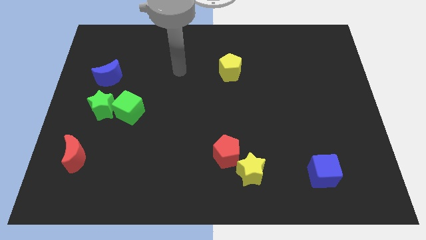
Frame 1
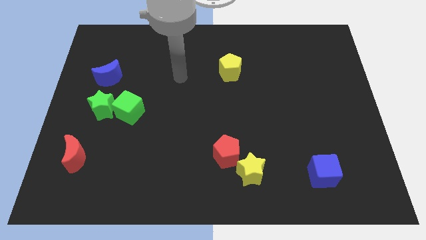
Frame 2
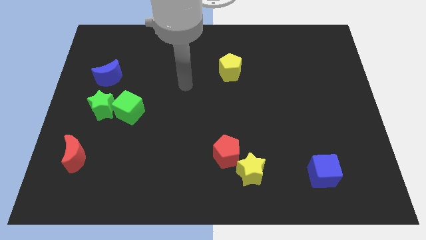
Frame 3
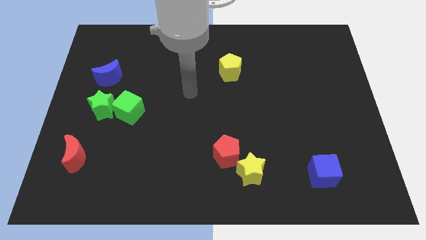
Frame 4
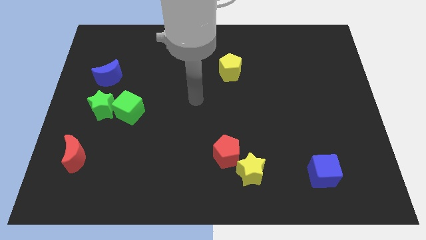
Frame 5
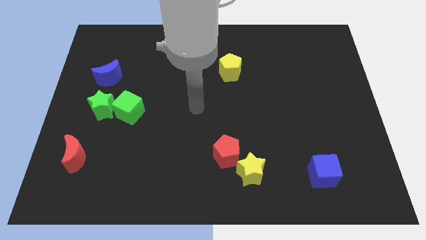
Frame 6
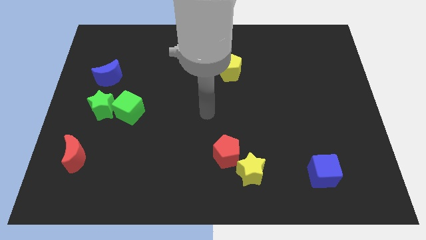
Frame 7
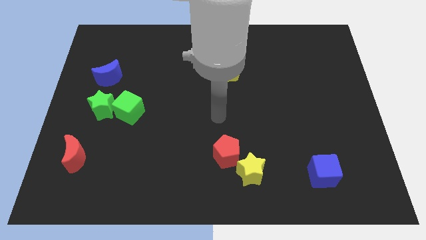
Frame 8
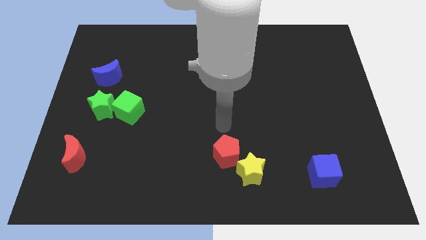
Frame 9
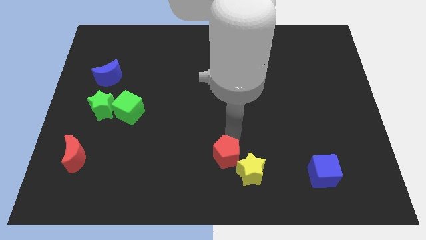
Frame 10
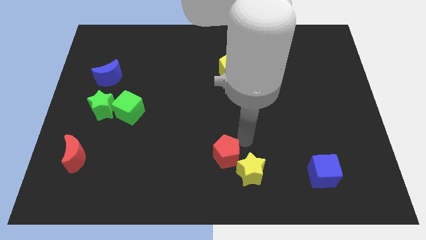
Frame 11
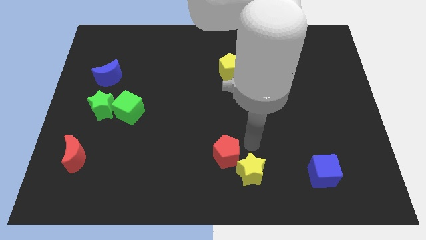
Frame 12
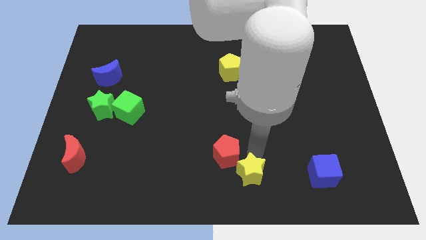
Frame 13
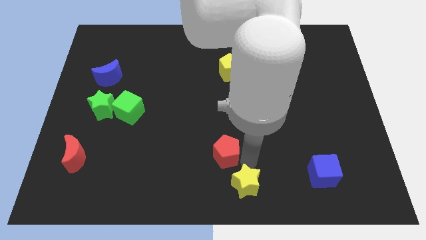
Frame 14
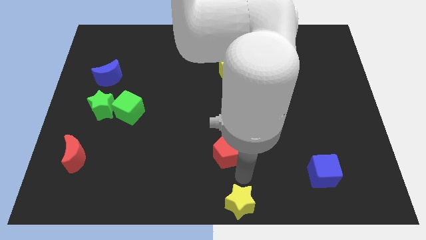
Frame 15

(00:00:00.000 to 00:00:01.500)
pull the red pentagon apart from the yellow star

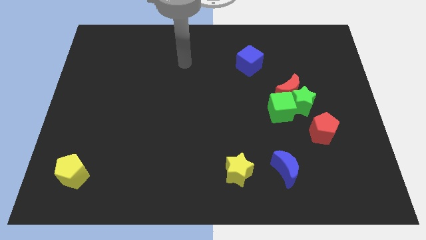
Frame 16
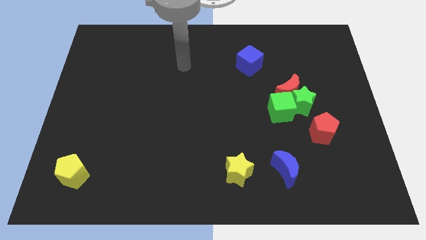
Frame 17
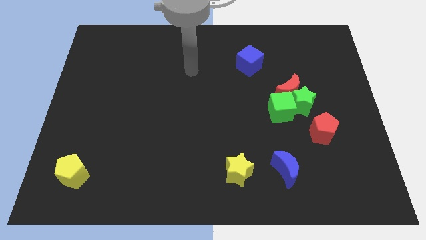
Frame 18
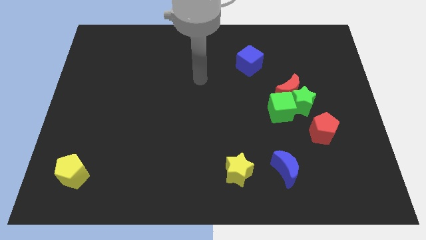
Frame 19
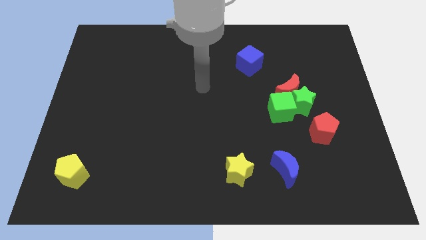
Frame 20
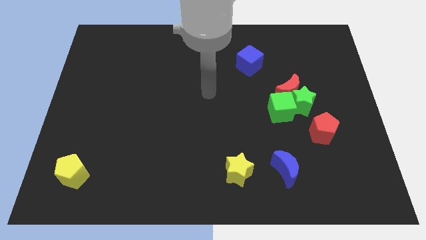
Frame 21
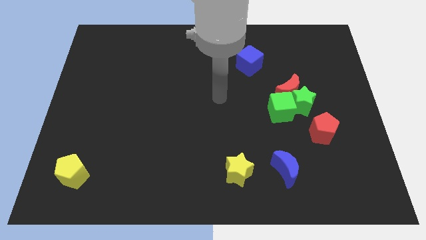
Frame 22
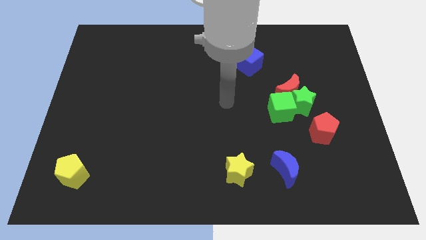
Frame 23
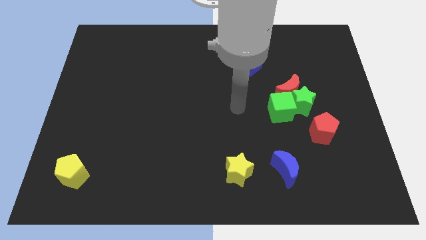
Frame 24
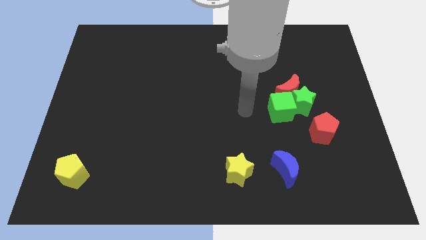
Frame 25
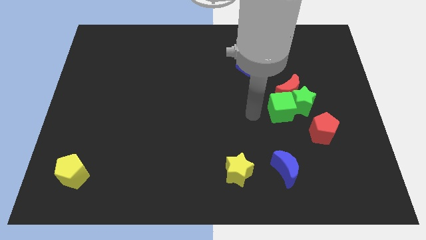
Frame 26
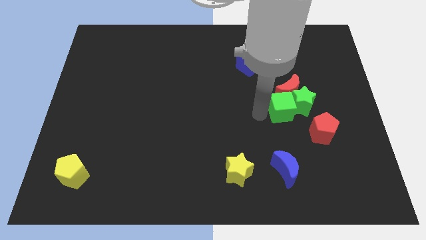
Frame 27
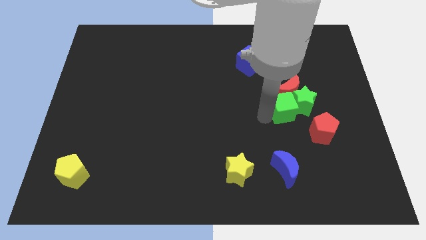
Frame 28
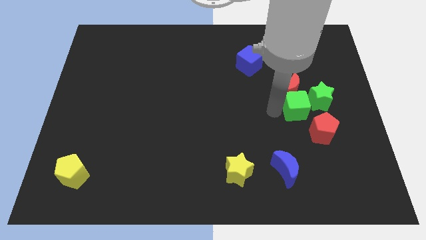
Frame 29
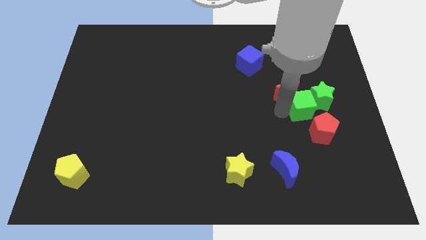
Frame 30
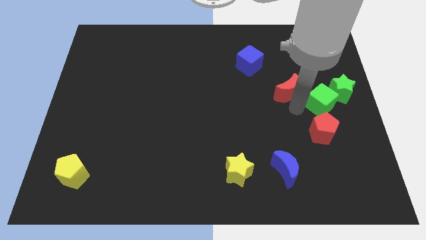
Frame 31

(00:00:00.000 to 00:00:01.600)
move the red moon away from the green star and green cube

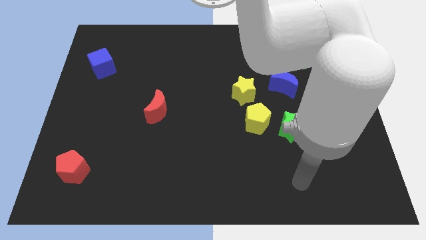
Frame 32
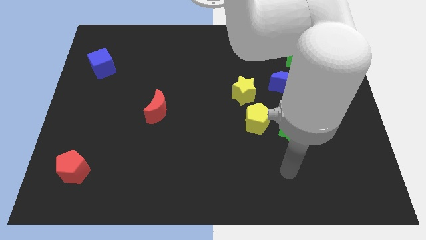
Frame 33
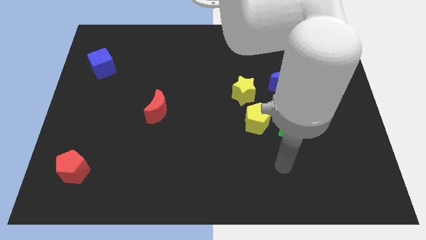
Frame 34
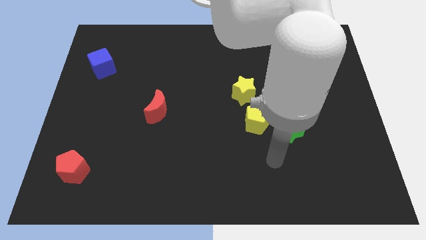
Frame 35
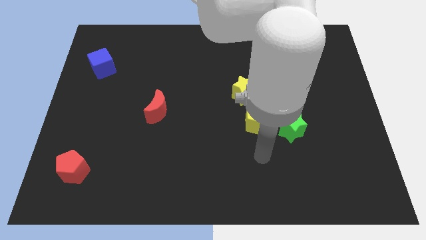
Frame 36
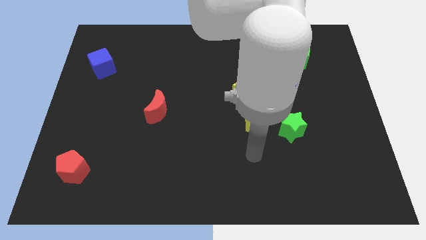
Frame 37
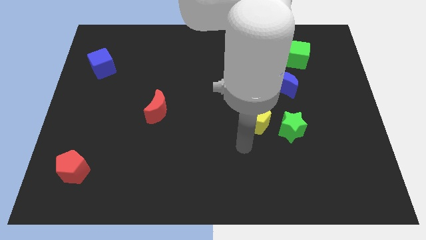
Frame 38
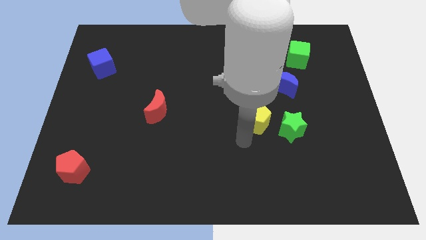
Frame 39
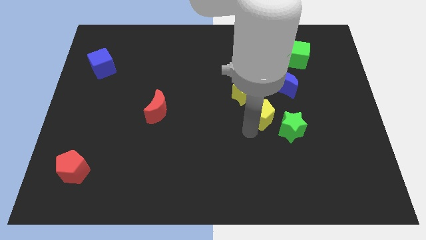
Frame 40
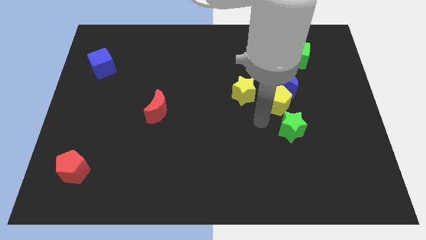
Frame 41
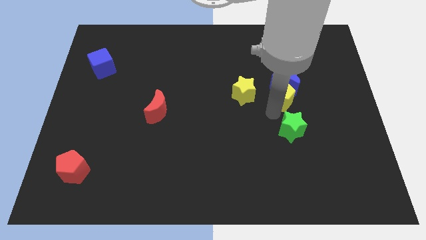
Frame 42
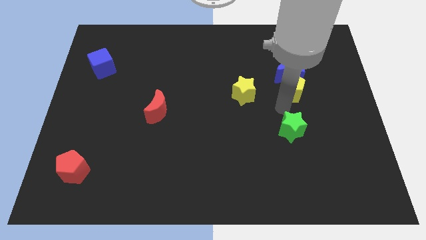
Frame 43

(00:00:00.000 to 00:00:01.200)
pull the green star apart from the yellow pentagon

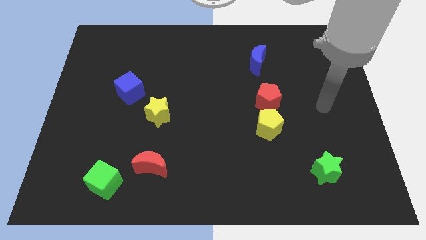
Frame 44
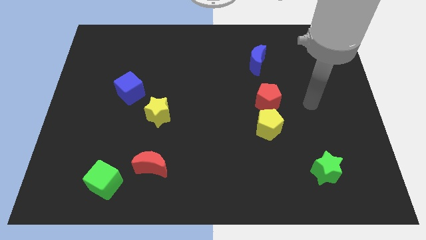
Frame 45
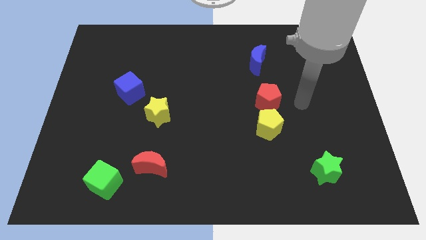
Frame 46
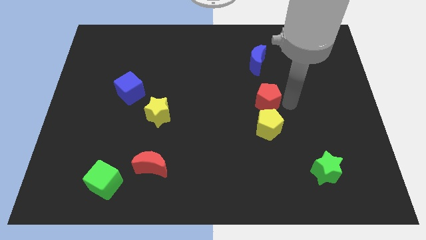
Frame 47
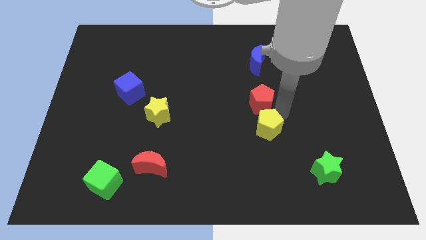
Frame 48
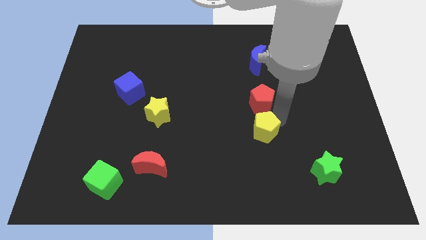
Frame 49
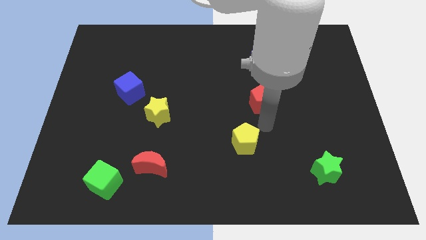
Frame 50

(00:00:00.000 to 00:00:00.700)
pull the red pentagon apart from the yellow pentagon

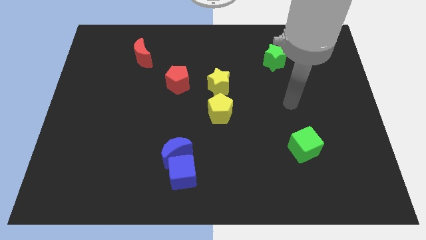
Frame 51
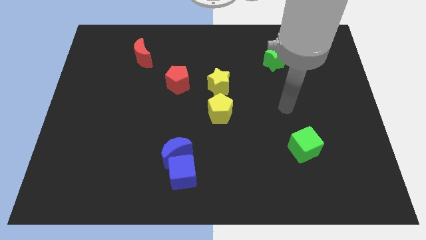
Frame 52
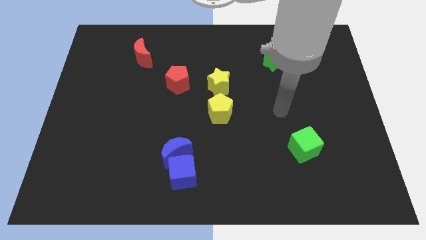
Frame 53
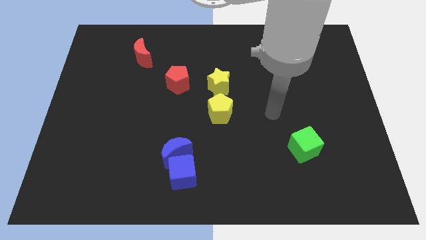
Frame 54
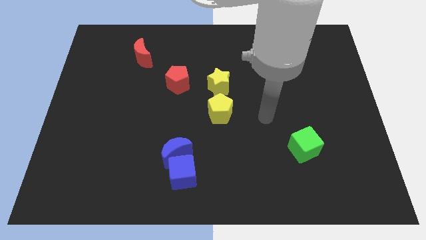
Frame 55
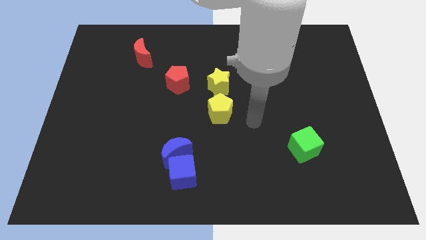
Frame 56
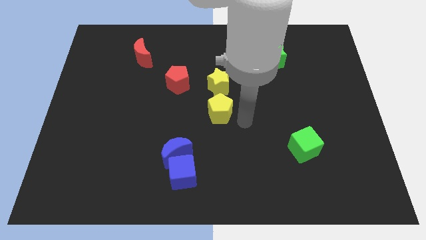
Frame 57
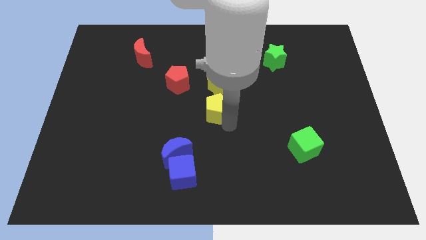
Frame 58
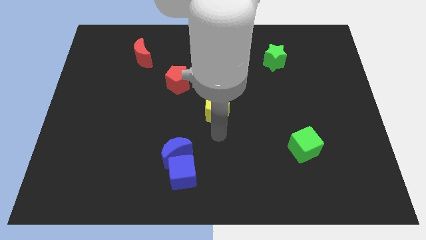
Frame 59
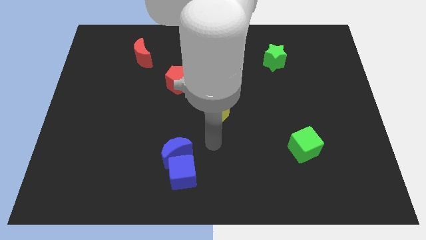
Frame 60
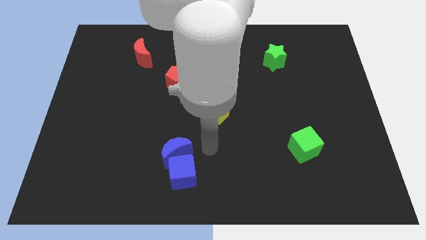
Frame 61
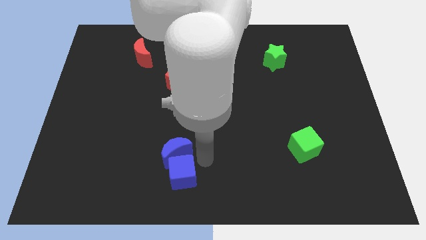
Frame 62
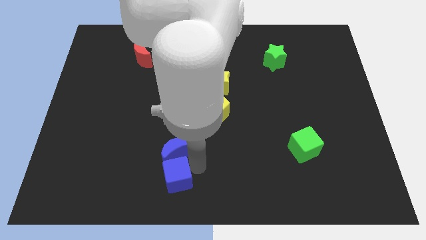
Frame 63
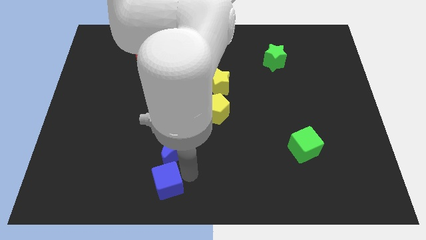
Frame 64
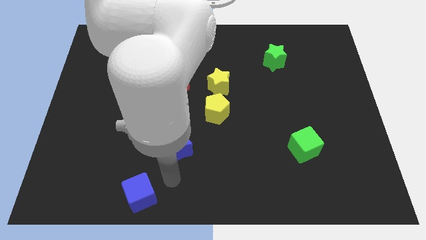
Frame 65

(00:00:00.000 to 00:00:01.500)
move the blue moon away from the blue cube

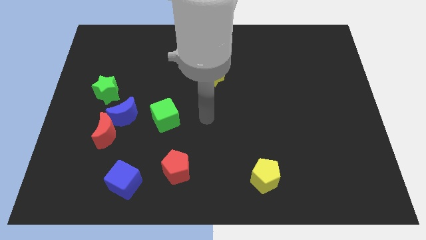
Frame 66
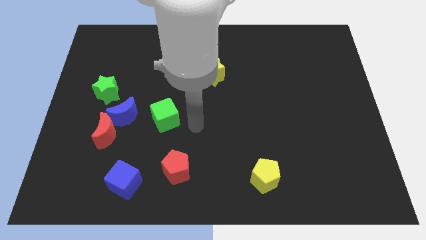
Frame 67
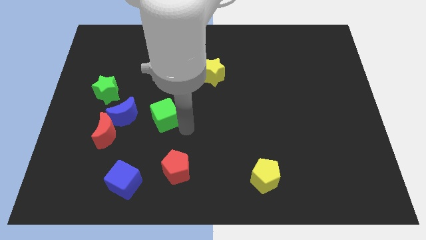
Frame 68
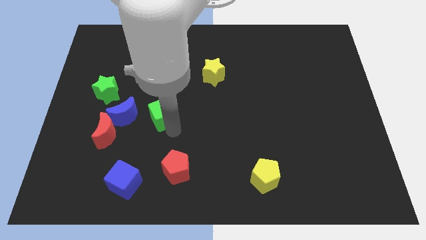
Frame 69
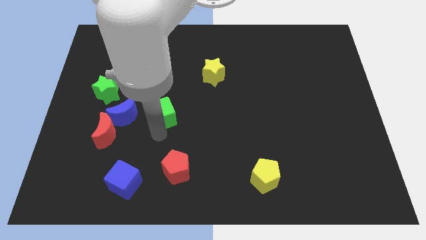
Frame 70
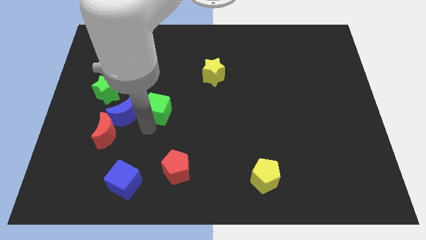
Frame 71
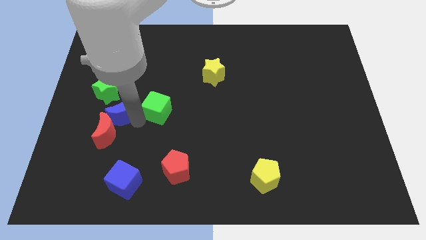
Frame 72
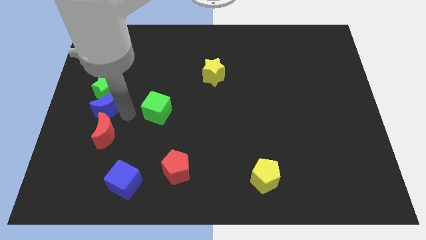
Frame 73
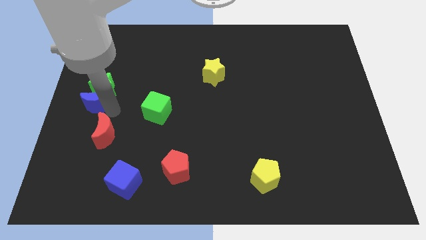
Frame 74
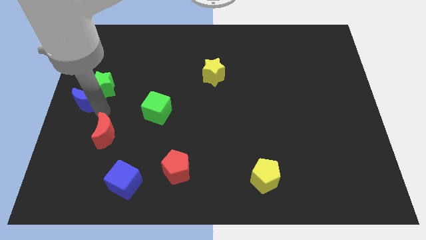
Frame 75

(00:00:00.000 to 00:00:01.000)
pull the red moon apart from the blue moon

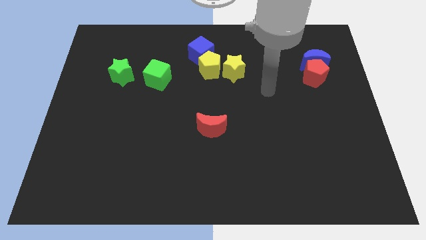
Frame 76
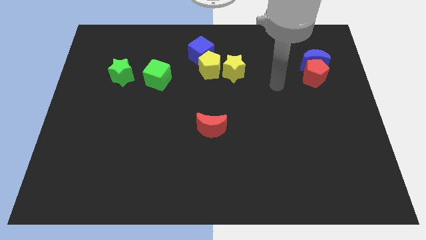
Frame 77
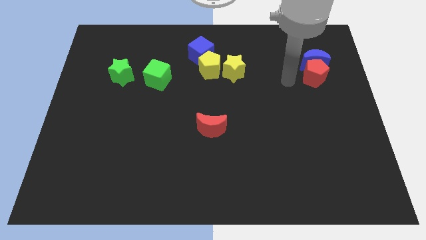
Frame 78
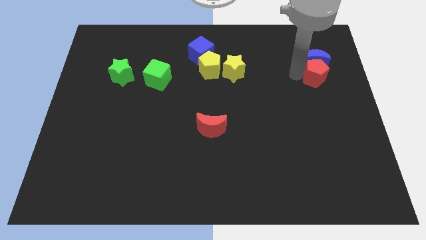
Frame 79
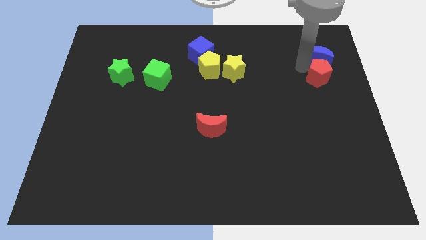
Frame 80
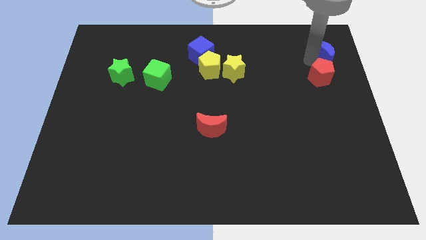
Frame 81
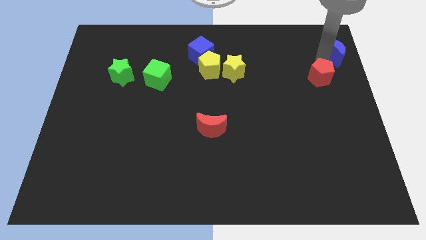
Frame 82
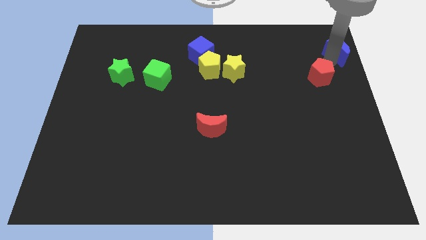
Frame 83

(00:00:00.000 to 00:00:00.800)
move the red pentagon away from the blue moon

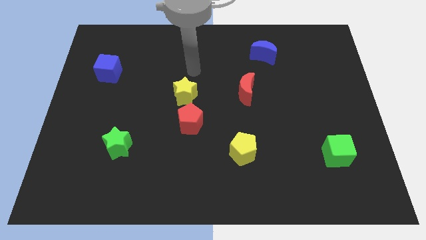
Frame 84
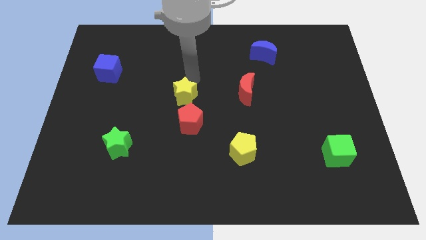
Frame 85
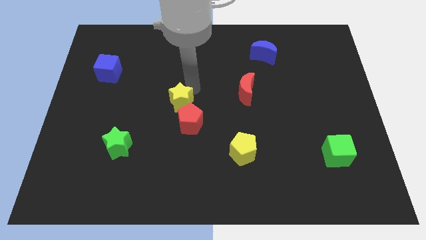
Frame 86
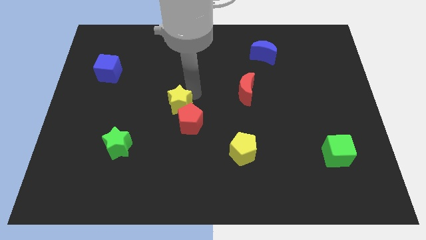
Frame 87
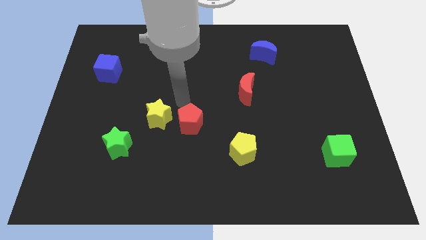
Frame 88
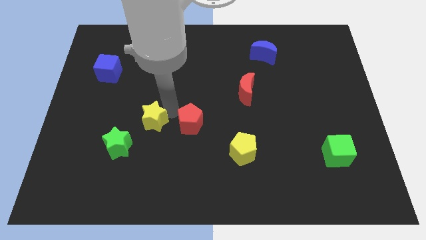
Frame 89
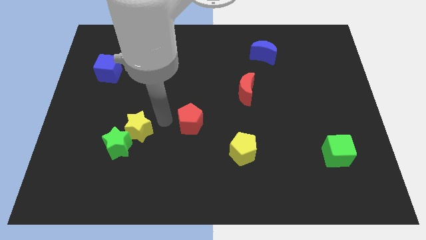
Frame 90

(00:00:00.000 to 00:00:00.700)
separate the red pentagon from the yellow star

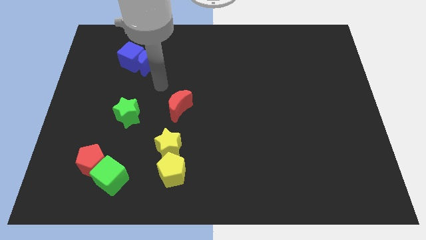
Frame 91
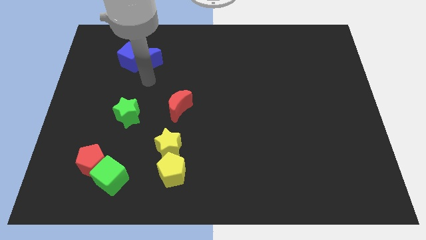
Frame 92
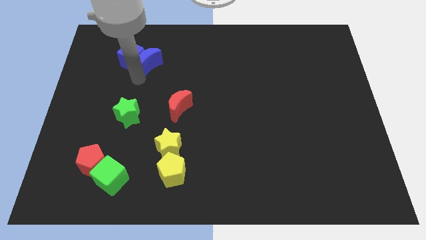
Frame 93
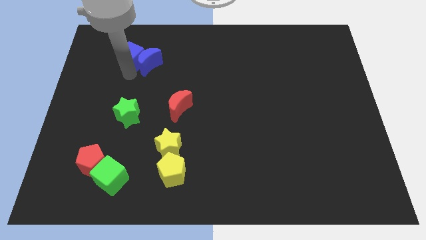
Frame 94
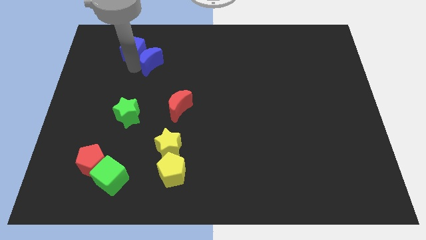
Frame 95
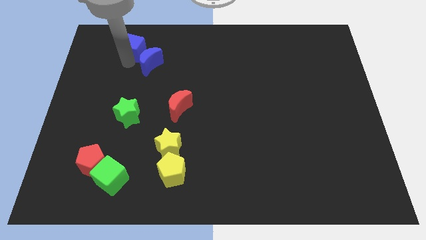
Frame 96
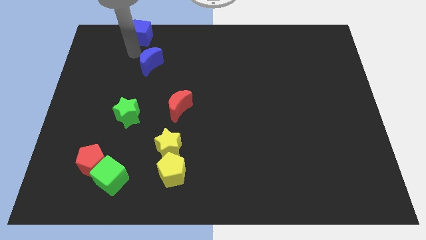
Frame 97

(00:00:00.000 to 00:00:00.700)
separate the blue moon from the blue cube
